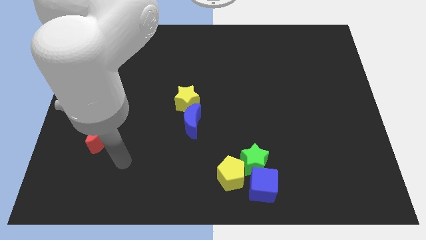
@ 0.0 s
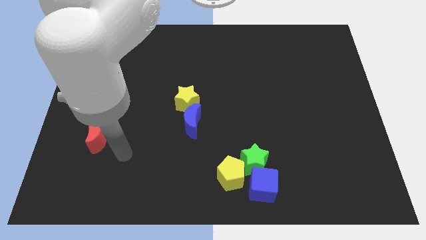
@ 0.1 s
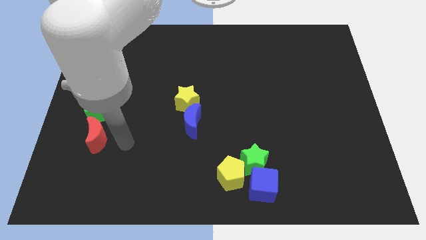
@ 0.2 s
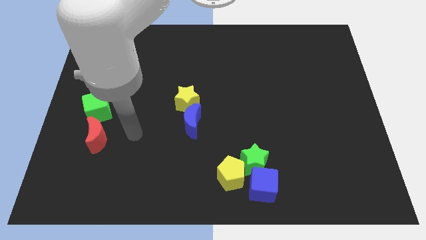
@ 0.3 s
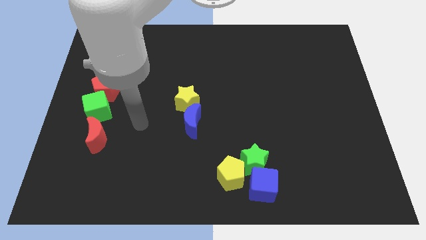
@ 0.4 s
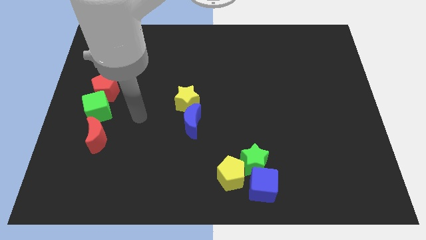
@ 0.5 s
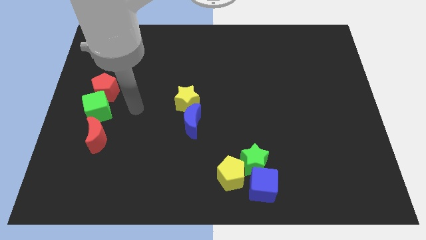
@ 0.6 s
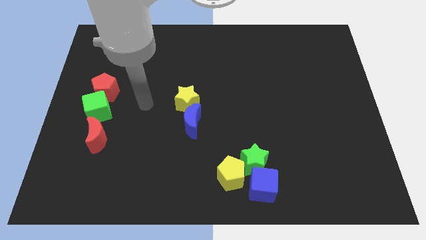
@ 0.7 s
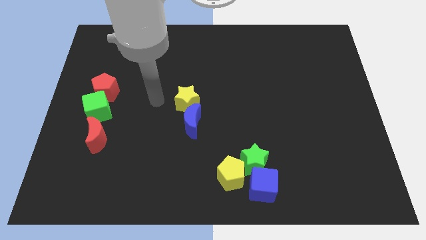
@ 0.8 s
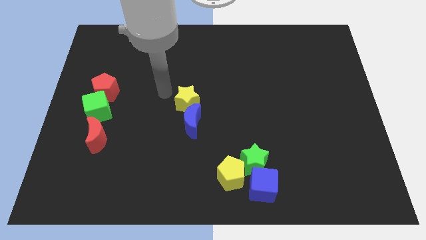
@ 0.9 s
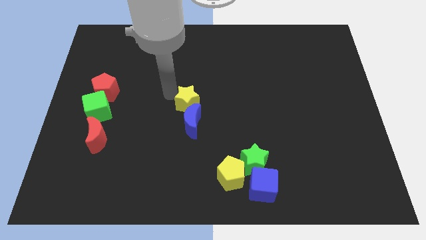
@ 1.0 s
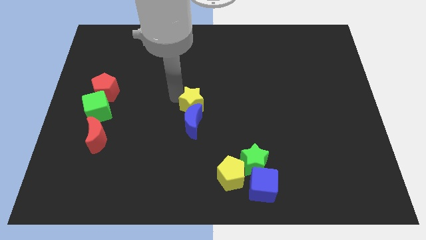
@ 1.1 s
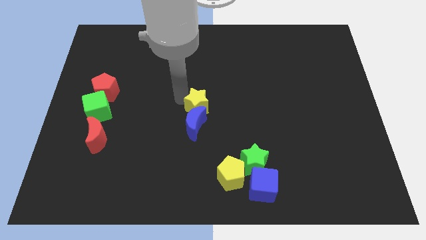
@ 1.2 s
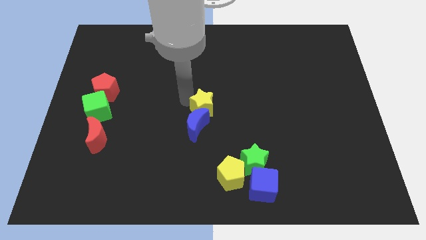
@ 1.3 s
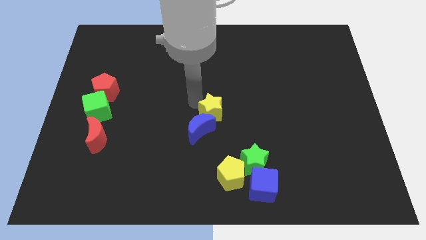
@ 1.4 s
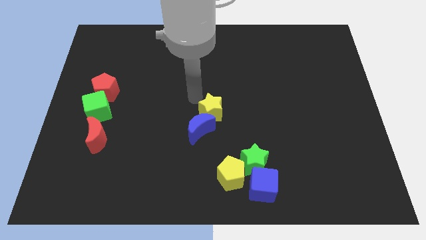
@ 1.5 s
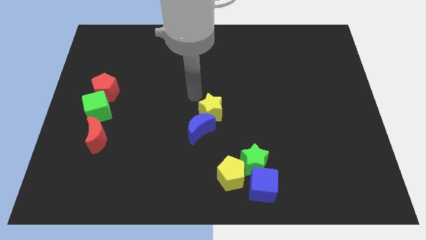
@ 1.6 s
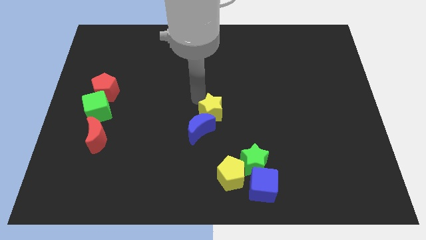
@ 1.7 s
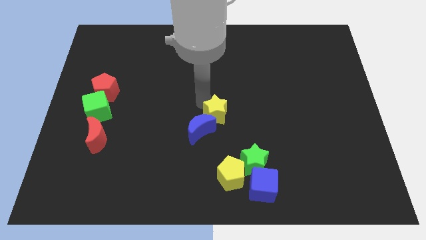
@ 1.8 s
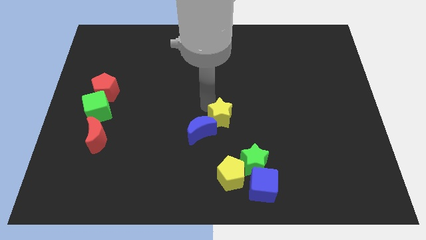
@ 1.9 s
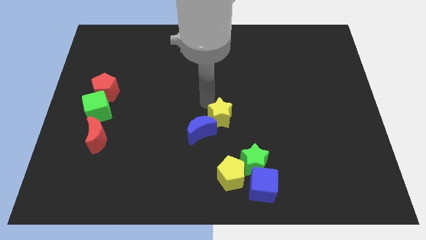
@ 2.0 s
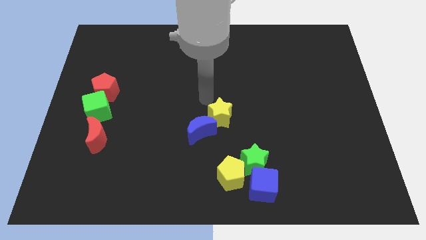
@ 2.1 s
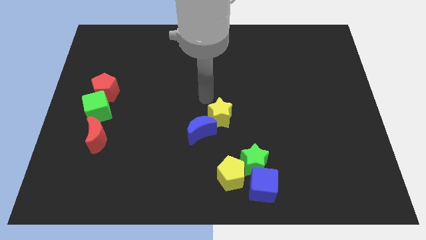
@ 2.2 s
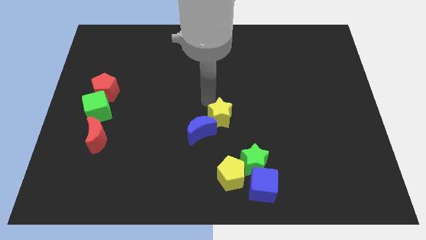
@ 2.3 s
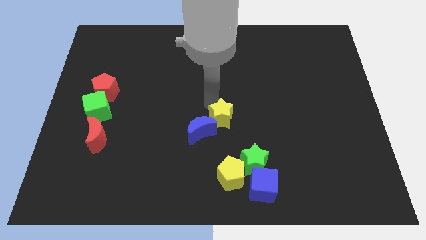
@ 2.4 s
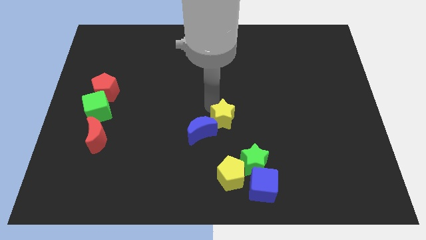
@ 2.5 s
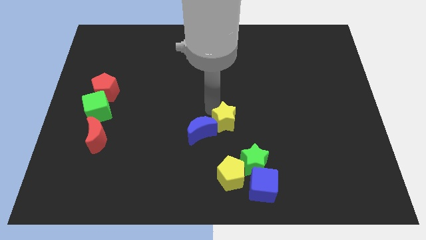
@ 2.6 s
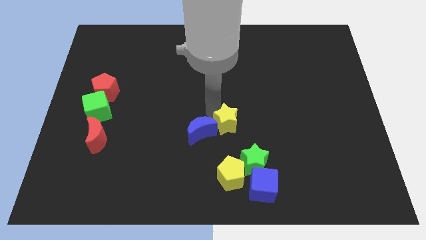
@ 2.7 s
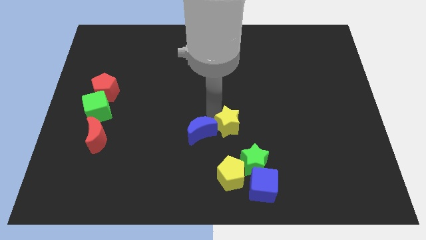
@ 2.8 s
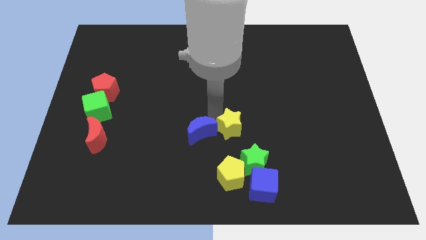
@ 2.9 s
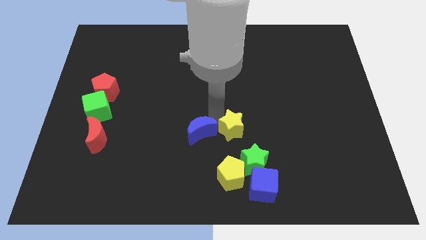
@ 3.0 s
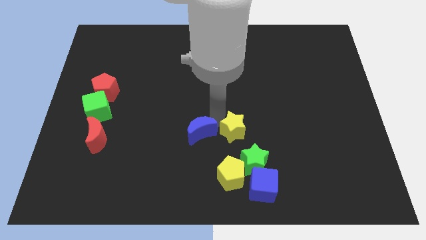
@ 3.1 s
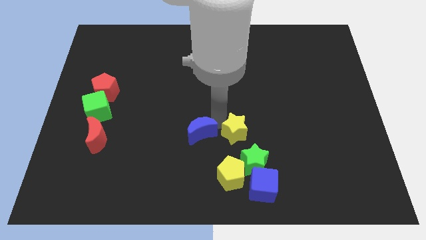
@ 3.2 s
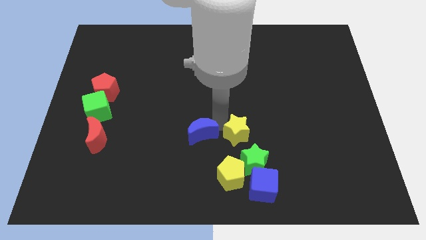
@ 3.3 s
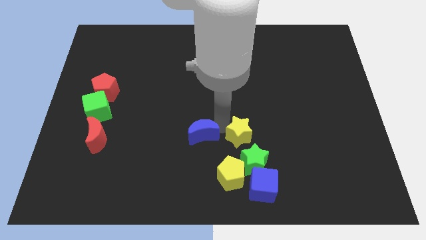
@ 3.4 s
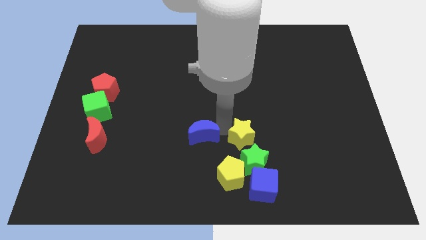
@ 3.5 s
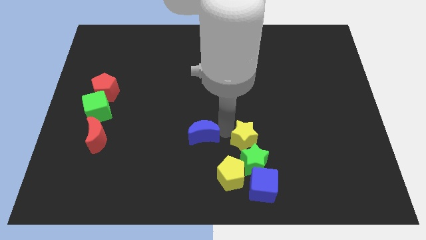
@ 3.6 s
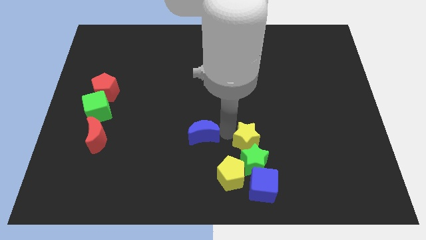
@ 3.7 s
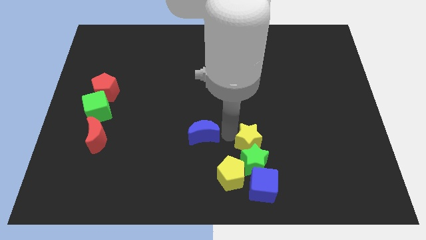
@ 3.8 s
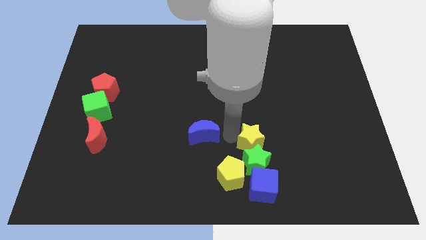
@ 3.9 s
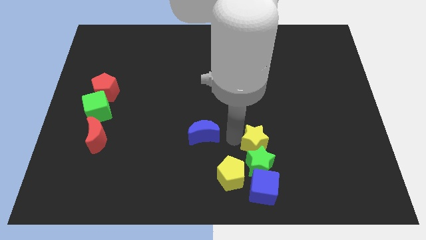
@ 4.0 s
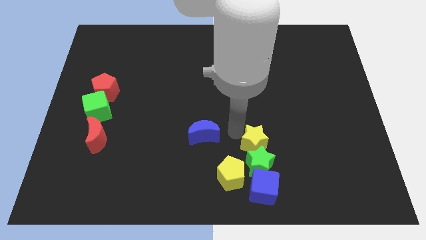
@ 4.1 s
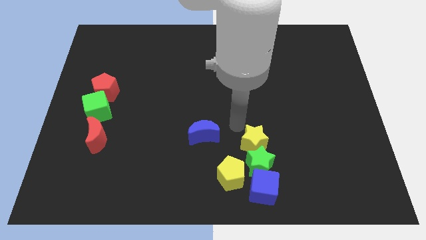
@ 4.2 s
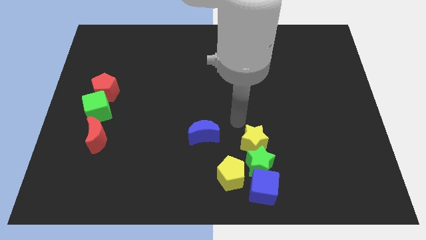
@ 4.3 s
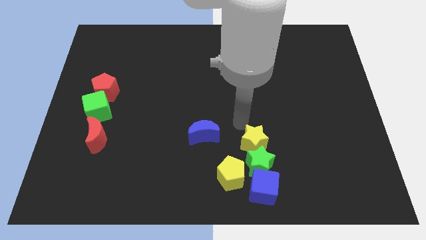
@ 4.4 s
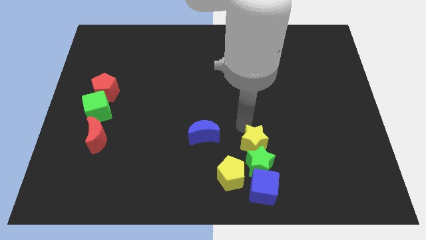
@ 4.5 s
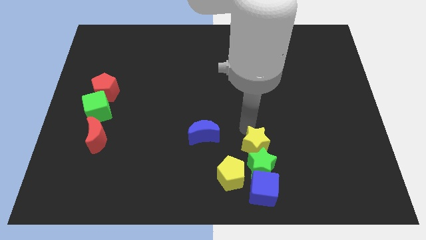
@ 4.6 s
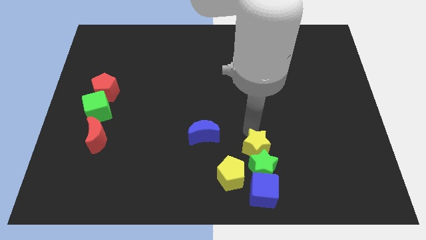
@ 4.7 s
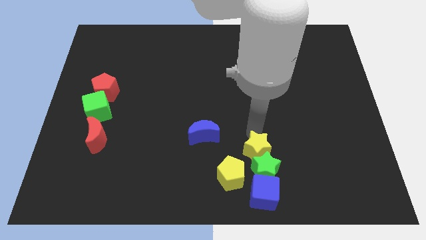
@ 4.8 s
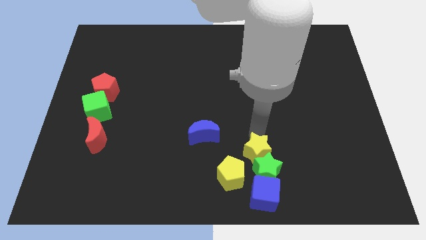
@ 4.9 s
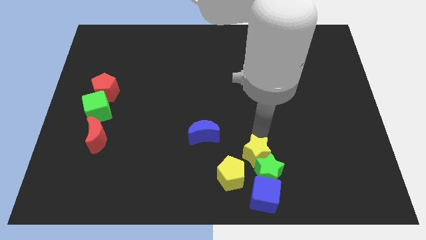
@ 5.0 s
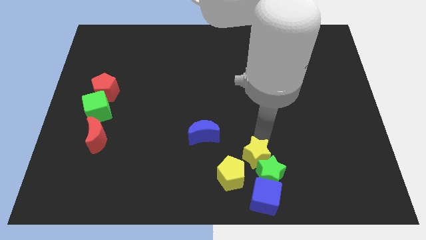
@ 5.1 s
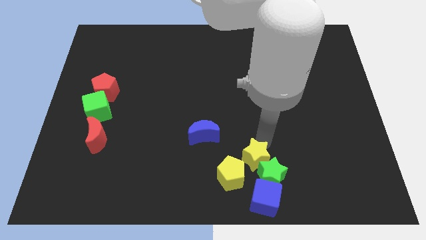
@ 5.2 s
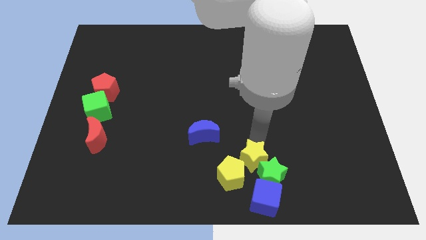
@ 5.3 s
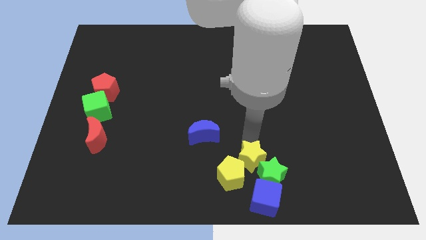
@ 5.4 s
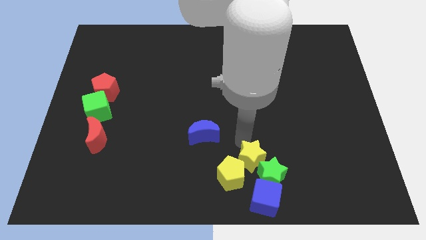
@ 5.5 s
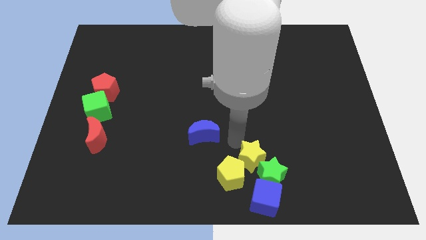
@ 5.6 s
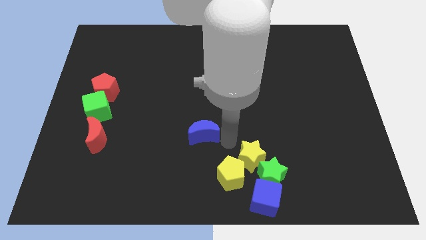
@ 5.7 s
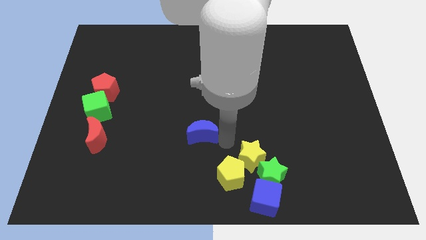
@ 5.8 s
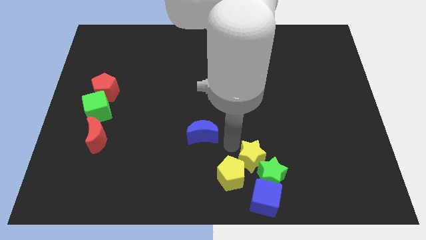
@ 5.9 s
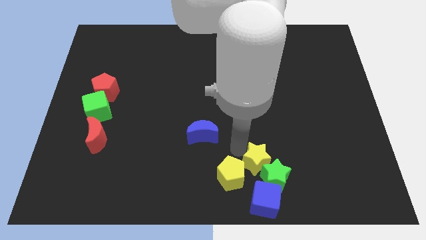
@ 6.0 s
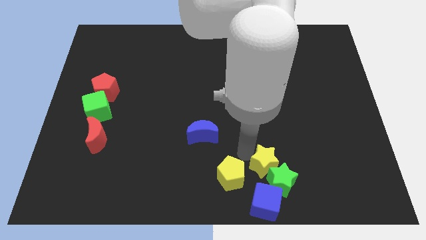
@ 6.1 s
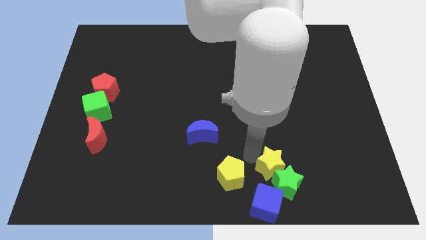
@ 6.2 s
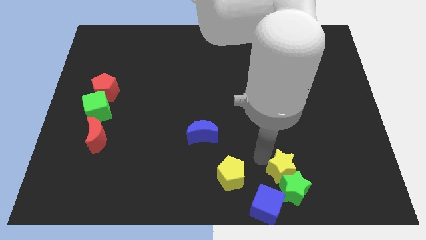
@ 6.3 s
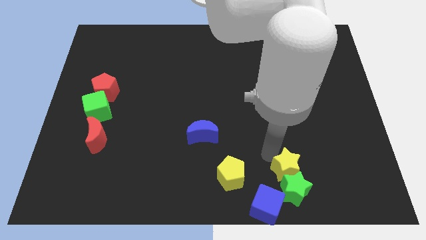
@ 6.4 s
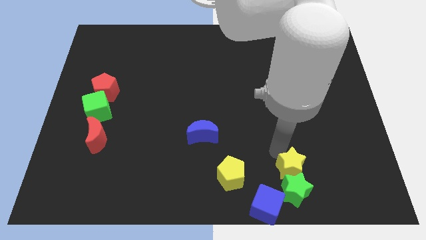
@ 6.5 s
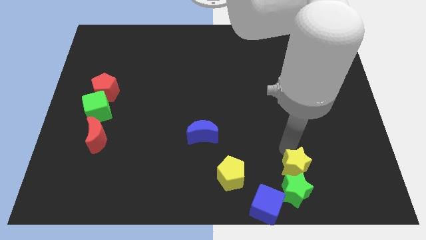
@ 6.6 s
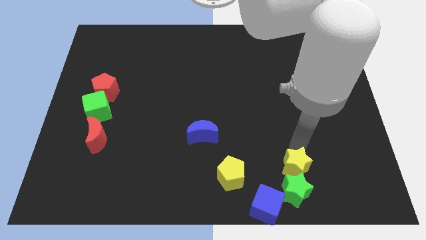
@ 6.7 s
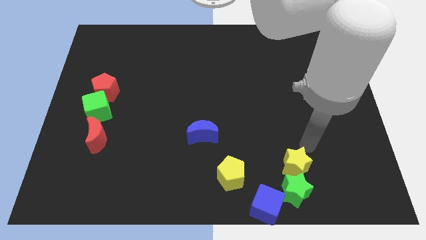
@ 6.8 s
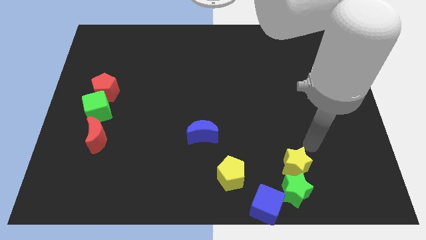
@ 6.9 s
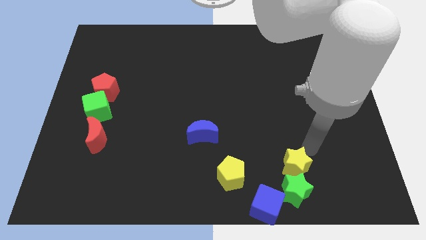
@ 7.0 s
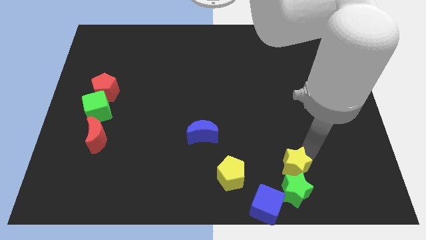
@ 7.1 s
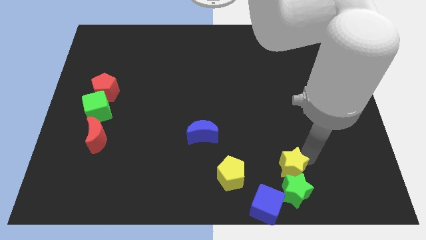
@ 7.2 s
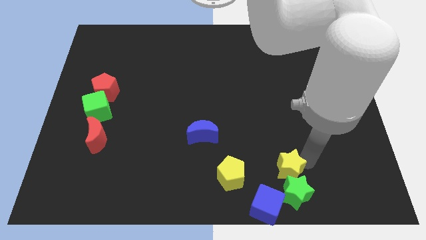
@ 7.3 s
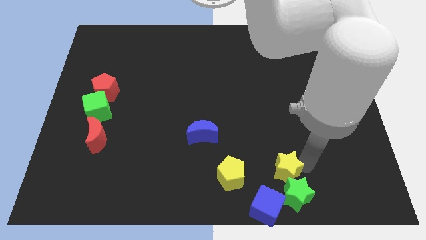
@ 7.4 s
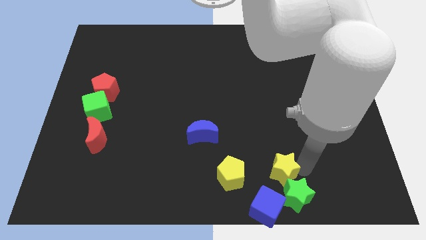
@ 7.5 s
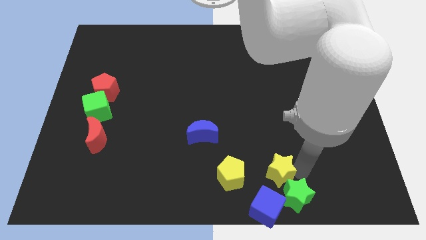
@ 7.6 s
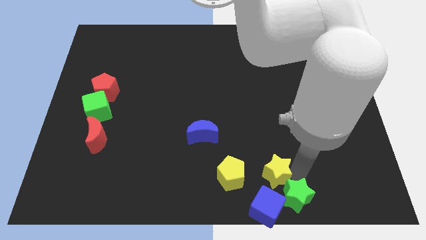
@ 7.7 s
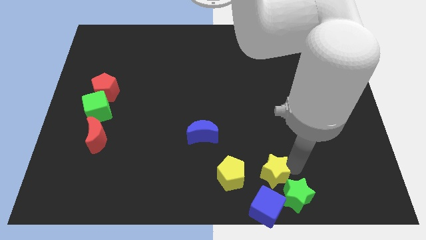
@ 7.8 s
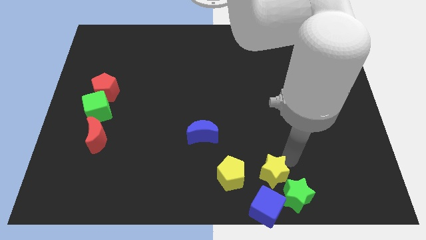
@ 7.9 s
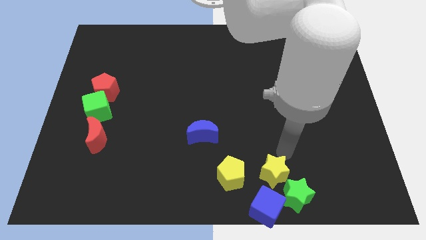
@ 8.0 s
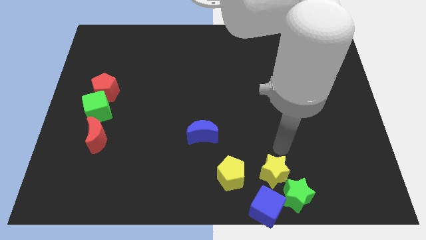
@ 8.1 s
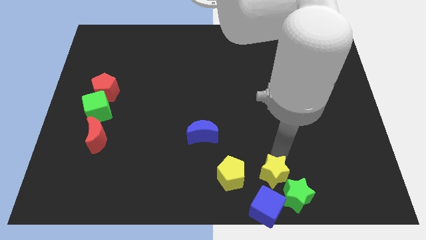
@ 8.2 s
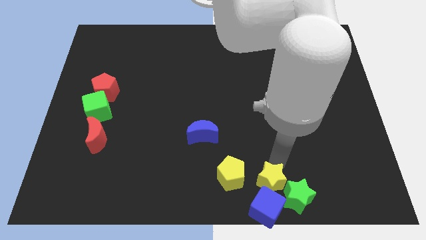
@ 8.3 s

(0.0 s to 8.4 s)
move the yellow star to the blue cube
